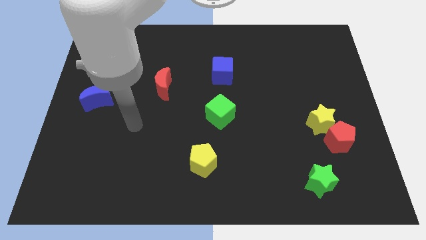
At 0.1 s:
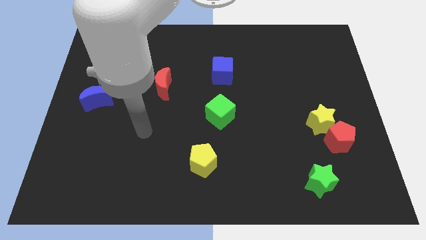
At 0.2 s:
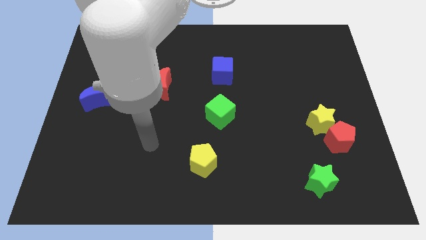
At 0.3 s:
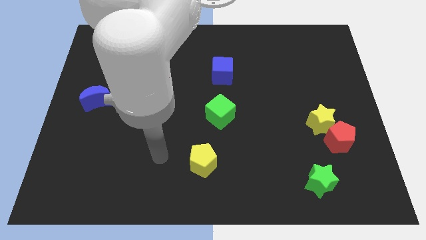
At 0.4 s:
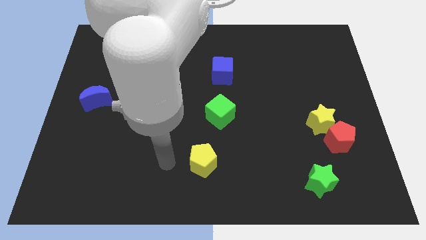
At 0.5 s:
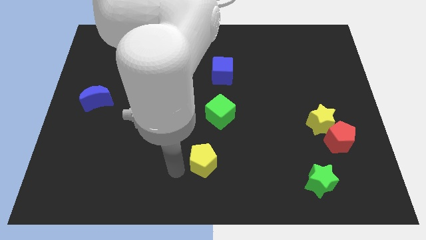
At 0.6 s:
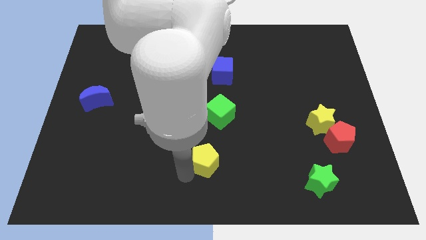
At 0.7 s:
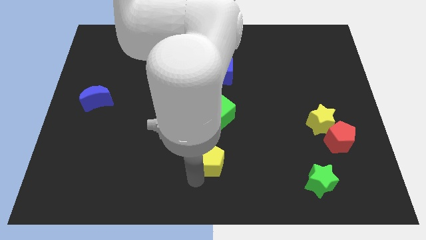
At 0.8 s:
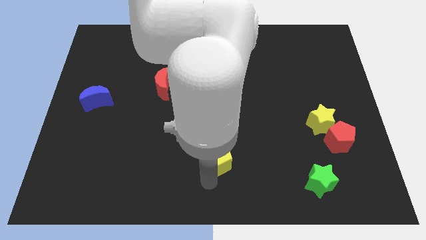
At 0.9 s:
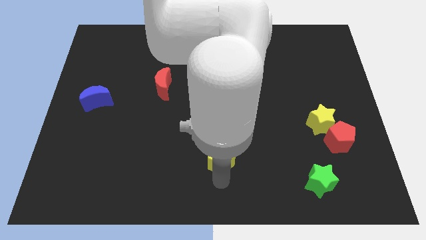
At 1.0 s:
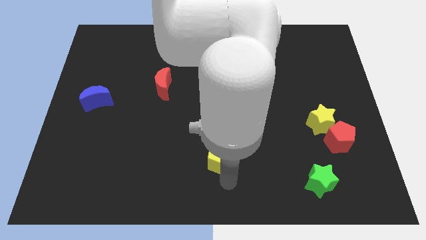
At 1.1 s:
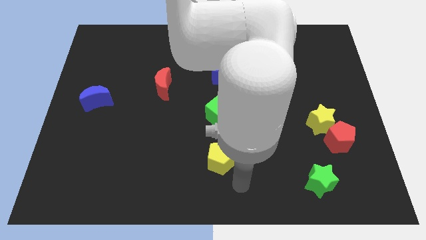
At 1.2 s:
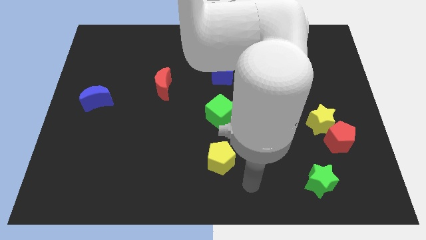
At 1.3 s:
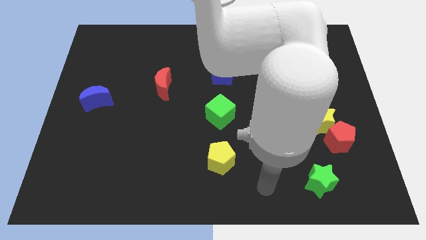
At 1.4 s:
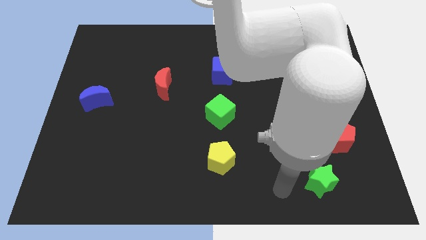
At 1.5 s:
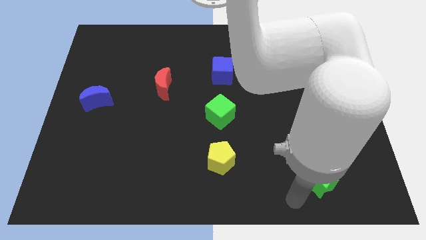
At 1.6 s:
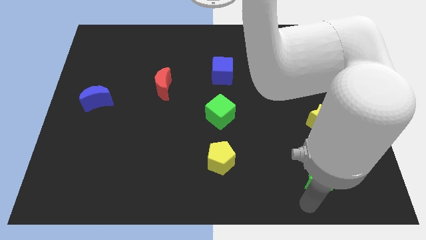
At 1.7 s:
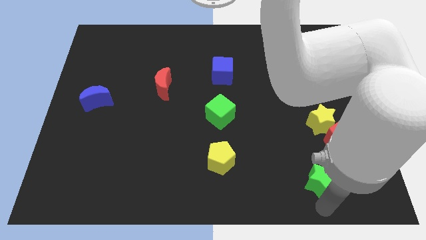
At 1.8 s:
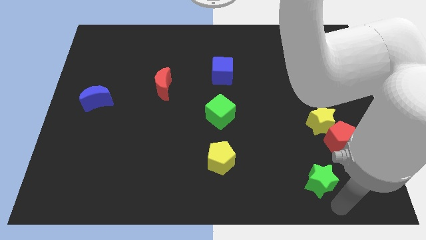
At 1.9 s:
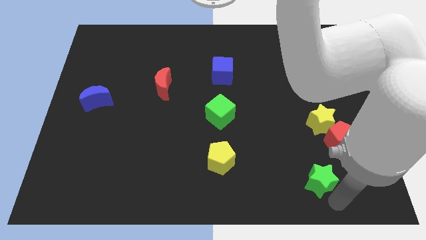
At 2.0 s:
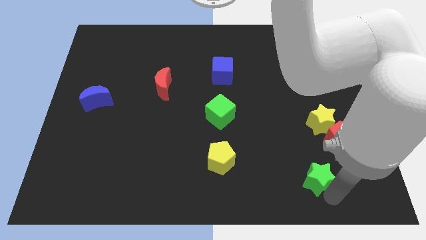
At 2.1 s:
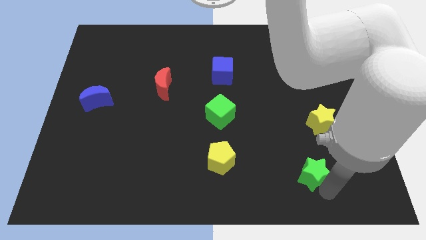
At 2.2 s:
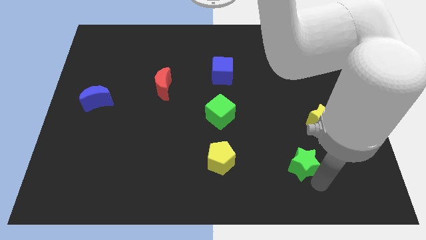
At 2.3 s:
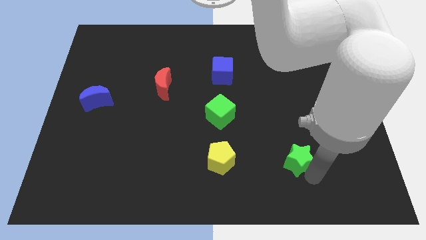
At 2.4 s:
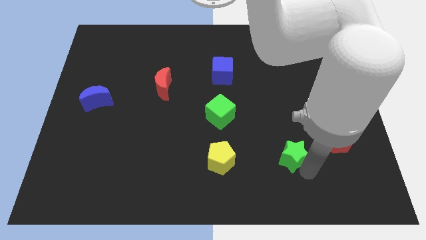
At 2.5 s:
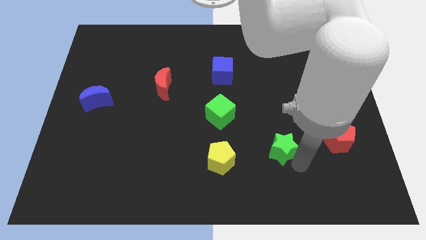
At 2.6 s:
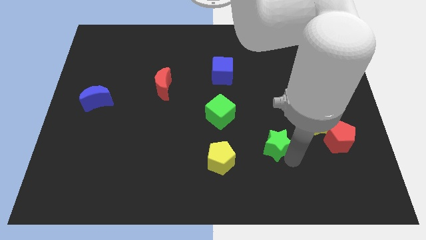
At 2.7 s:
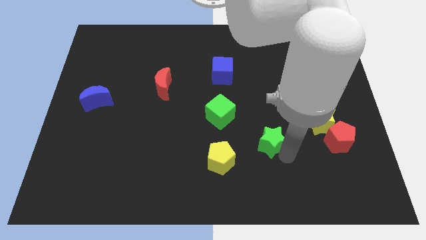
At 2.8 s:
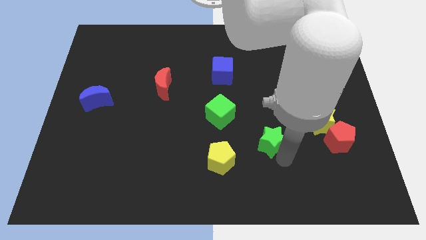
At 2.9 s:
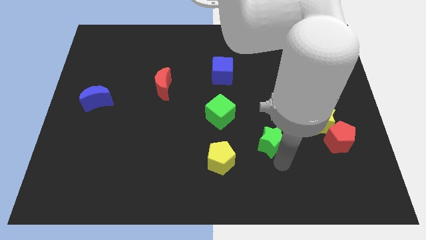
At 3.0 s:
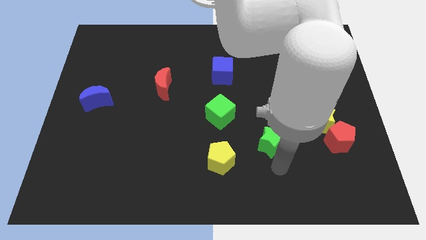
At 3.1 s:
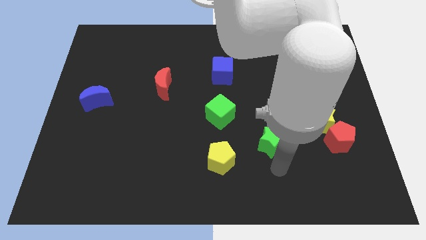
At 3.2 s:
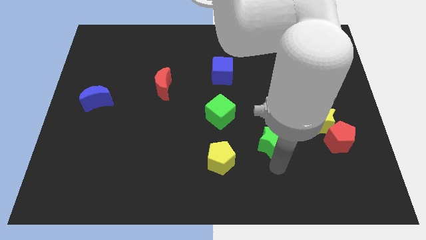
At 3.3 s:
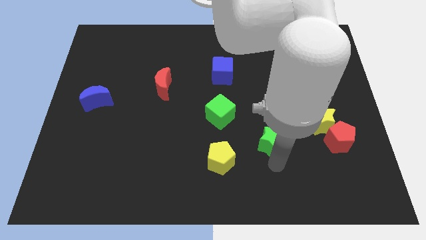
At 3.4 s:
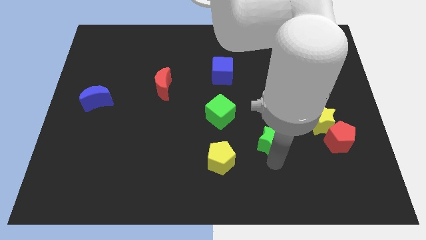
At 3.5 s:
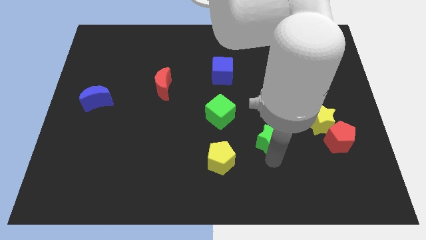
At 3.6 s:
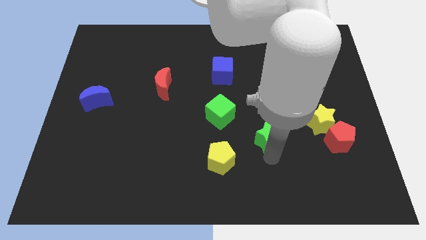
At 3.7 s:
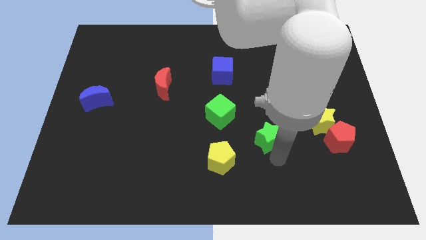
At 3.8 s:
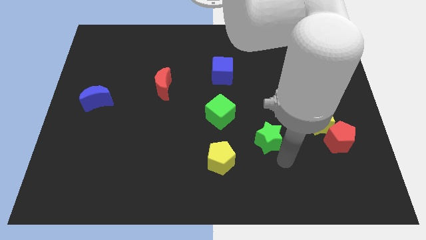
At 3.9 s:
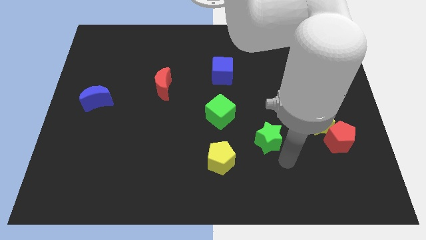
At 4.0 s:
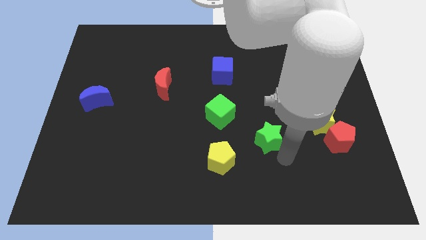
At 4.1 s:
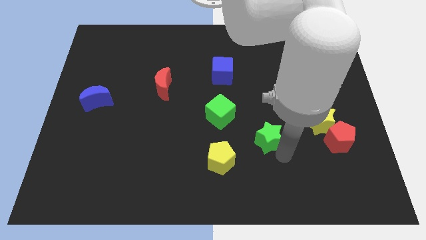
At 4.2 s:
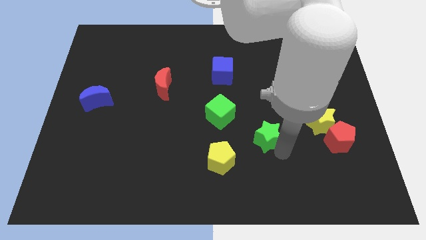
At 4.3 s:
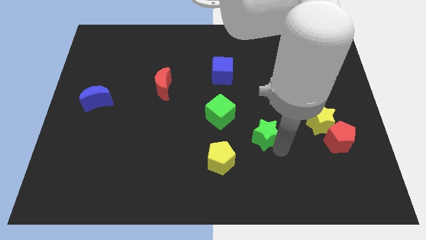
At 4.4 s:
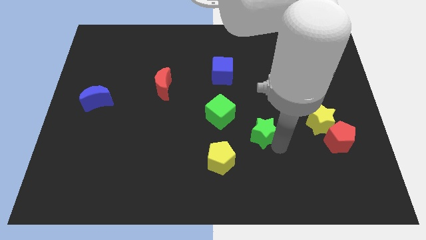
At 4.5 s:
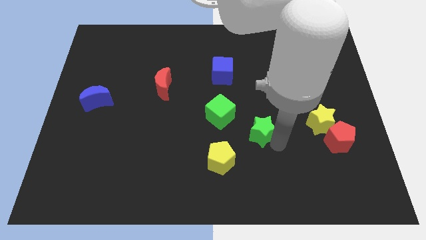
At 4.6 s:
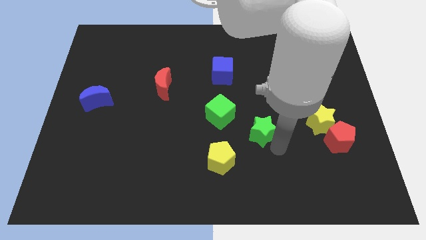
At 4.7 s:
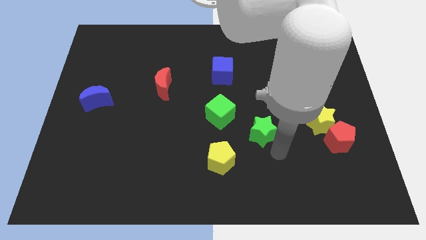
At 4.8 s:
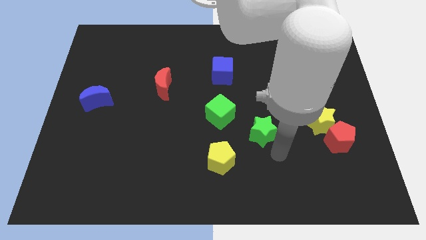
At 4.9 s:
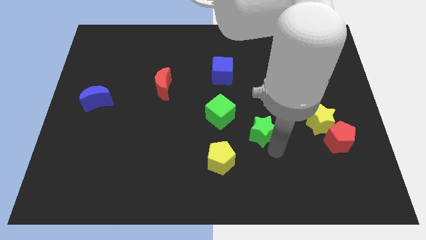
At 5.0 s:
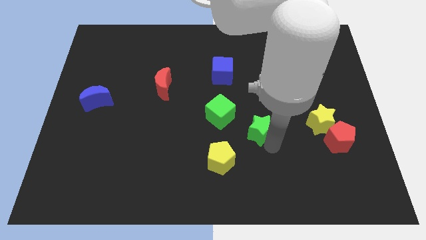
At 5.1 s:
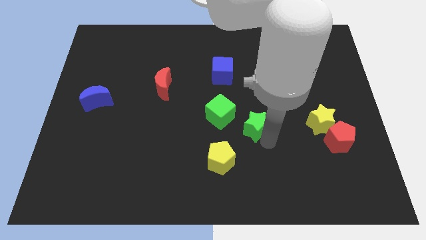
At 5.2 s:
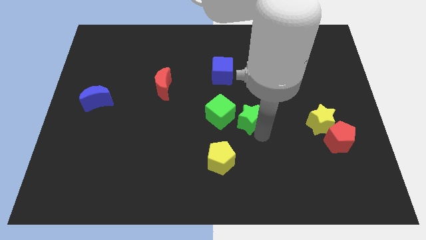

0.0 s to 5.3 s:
push the green star diagonally up and left

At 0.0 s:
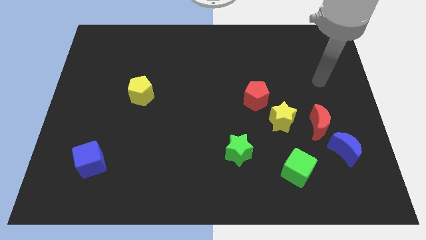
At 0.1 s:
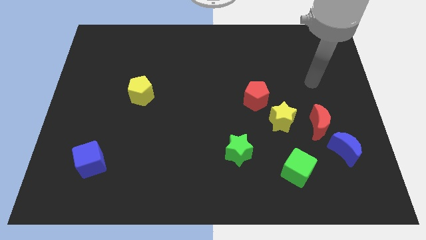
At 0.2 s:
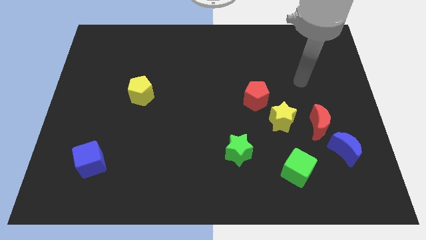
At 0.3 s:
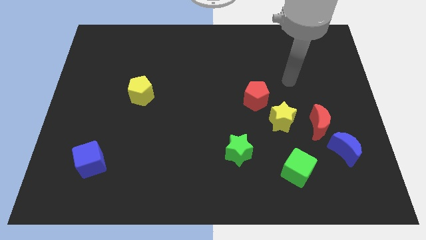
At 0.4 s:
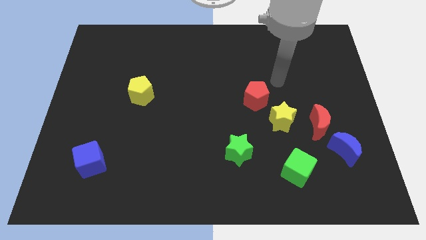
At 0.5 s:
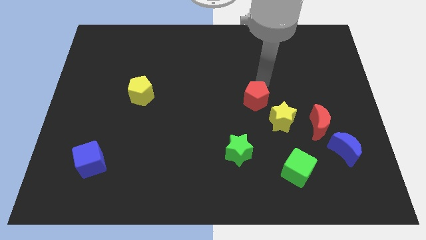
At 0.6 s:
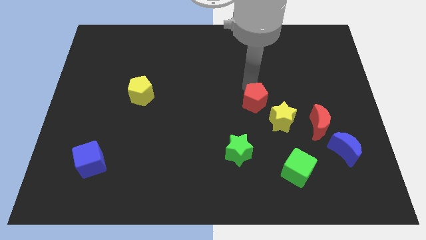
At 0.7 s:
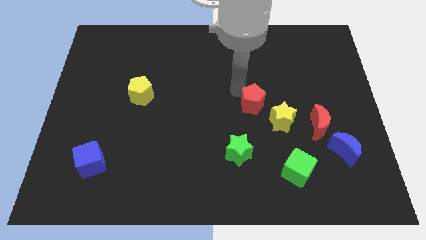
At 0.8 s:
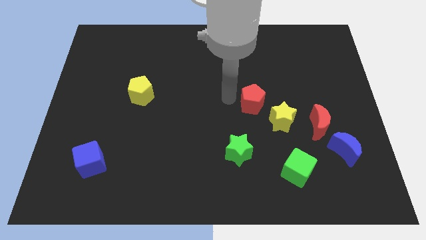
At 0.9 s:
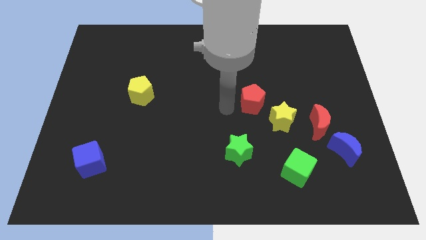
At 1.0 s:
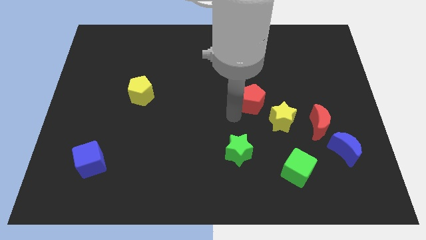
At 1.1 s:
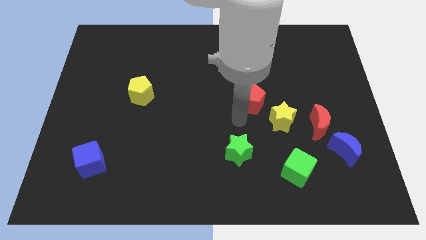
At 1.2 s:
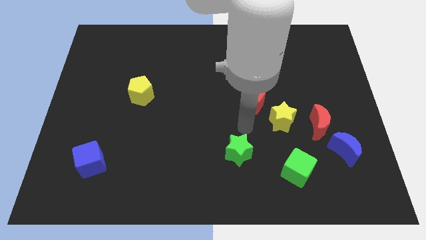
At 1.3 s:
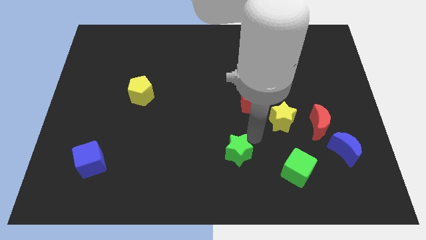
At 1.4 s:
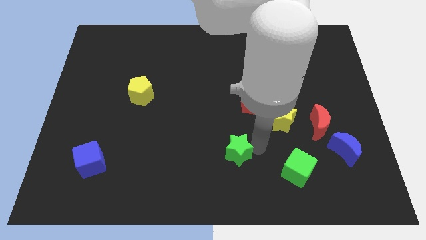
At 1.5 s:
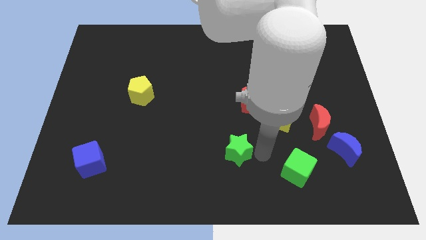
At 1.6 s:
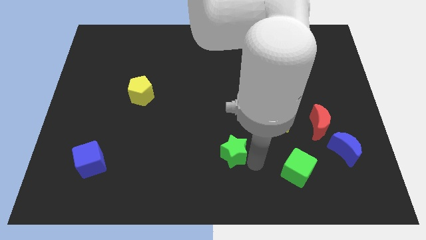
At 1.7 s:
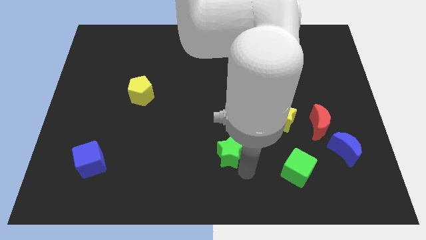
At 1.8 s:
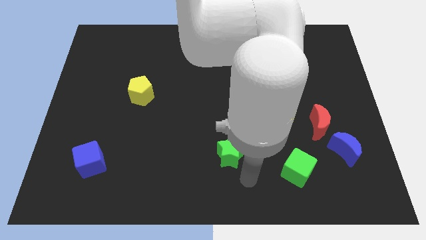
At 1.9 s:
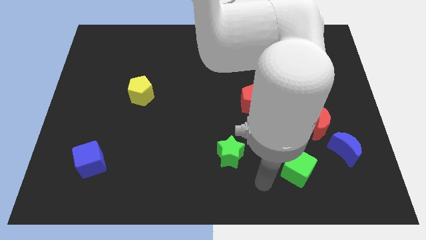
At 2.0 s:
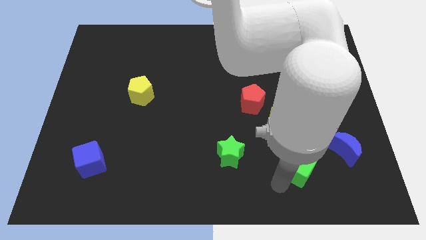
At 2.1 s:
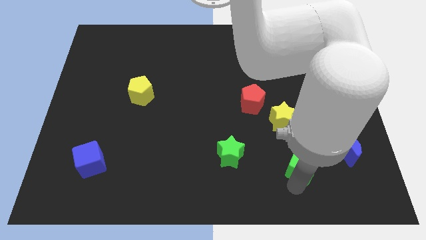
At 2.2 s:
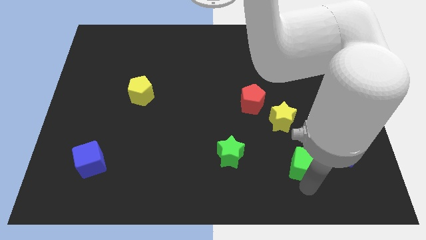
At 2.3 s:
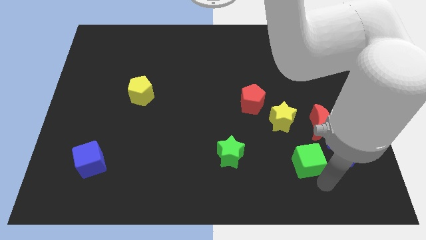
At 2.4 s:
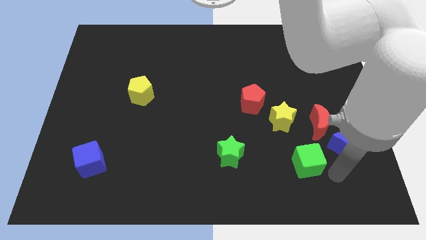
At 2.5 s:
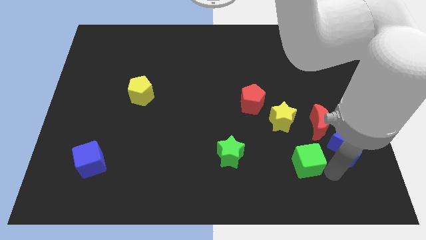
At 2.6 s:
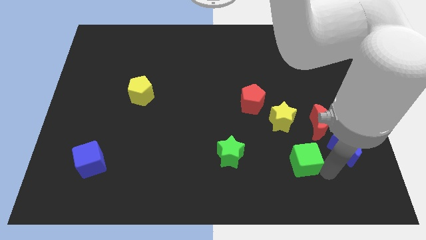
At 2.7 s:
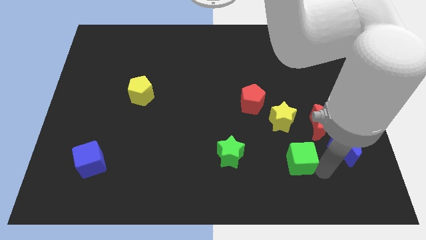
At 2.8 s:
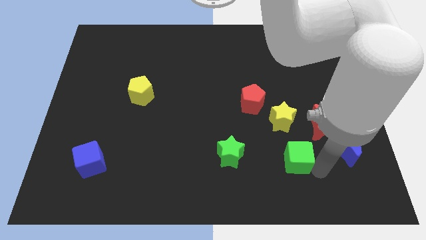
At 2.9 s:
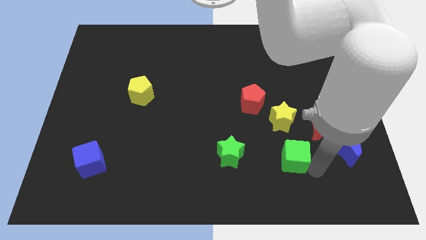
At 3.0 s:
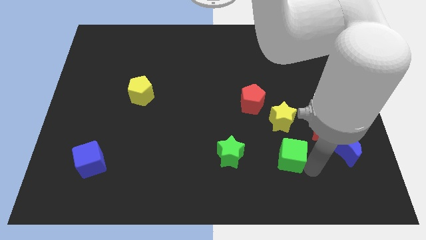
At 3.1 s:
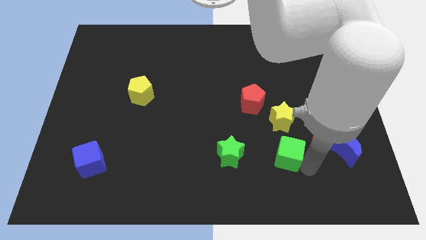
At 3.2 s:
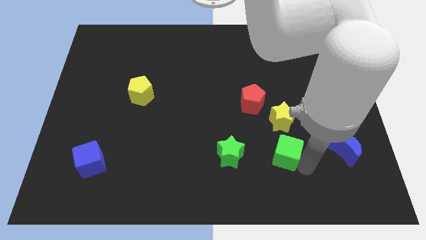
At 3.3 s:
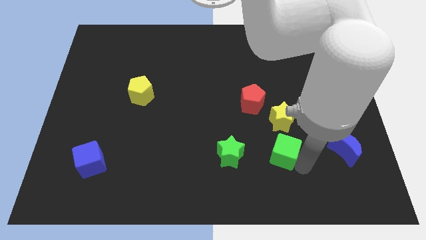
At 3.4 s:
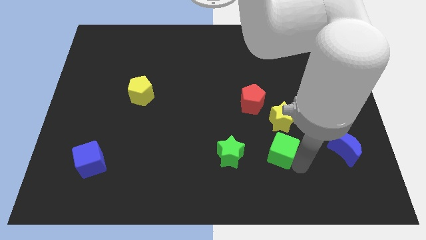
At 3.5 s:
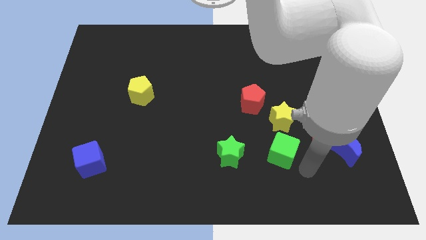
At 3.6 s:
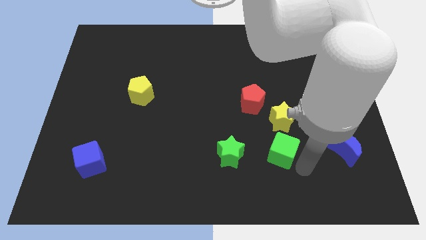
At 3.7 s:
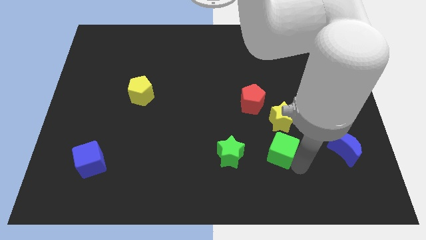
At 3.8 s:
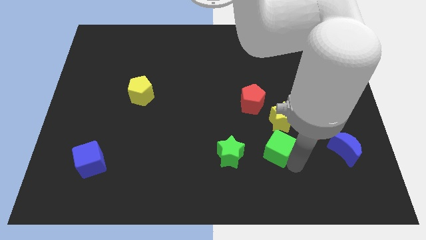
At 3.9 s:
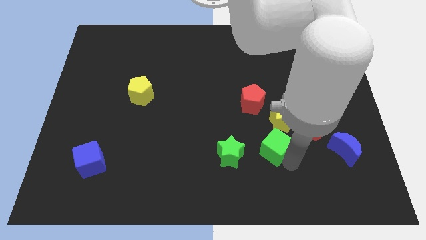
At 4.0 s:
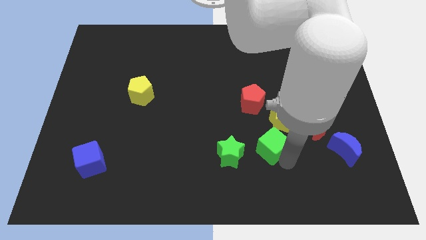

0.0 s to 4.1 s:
move the green cube diagonally upwards and to the left a bit
